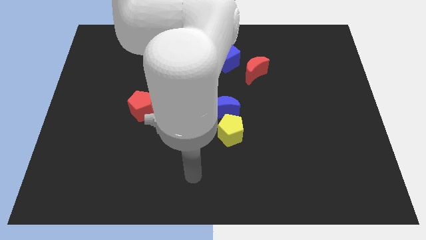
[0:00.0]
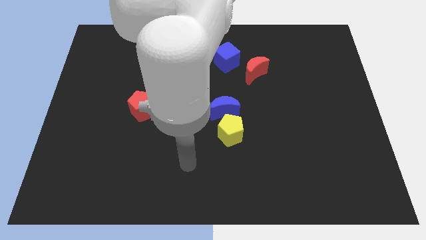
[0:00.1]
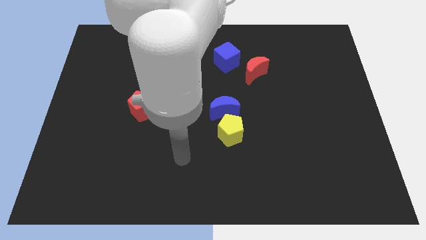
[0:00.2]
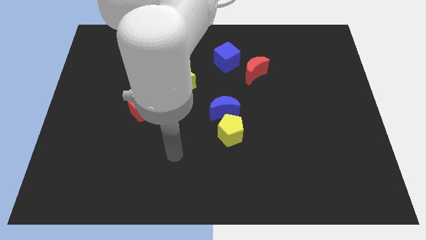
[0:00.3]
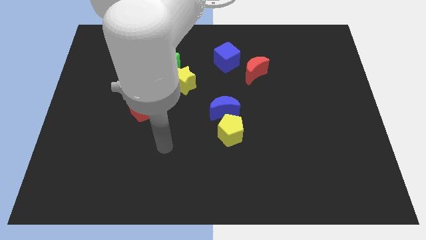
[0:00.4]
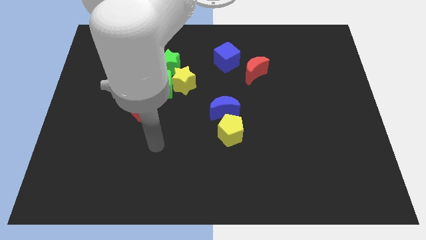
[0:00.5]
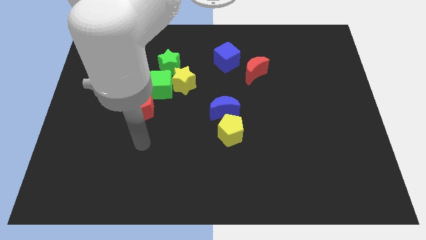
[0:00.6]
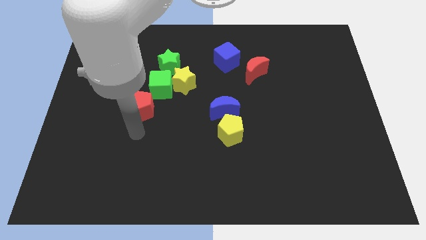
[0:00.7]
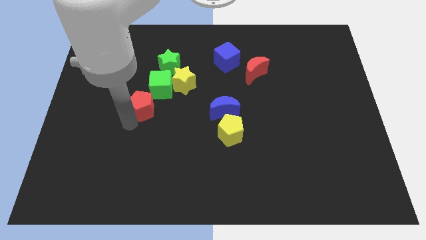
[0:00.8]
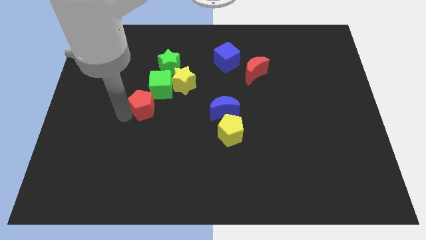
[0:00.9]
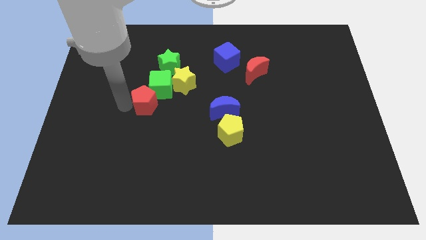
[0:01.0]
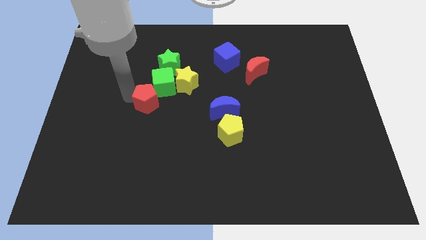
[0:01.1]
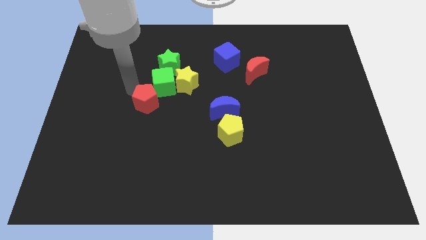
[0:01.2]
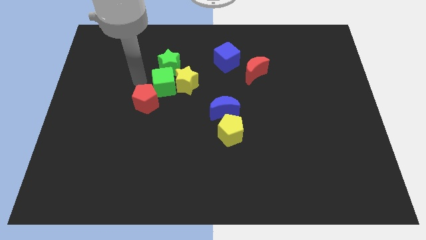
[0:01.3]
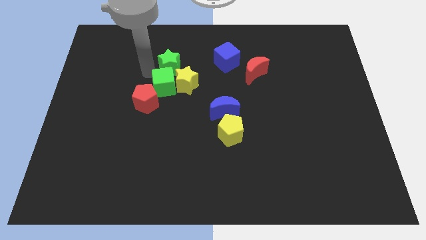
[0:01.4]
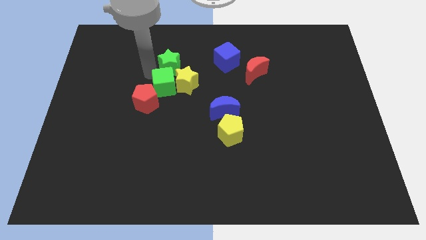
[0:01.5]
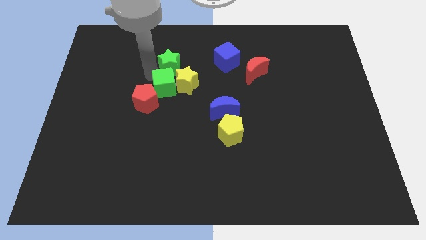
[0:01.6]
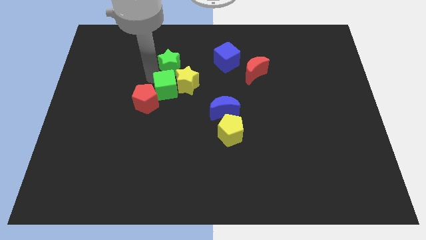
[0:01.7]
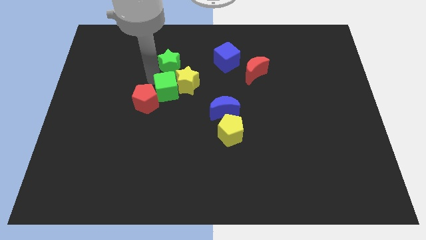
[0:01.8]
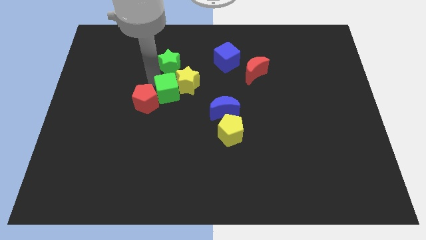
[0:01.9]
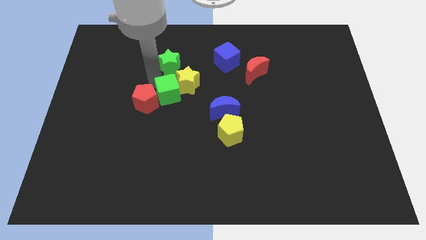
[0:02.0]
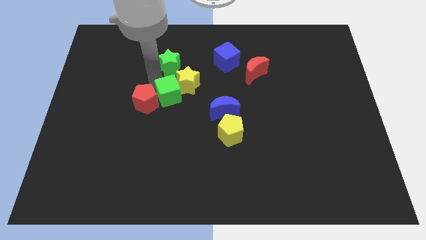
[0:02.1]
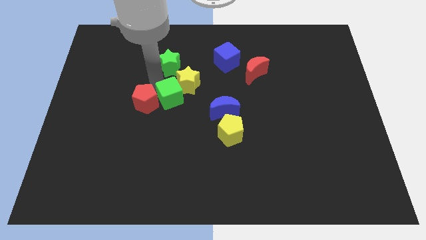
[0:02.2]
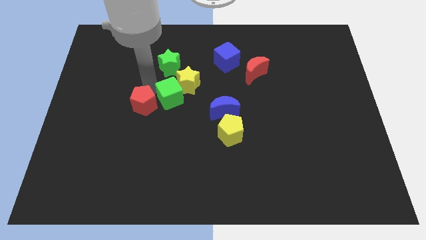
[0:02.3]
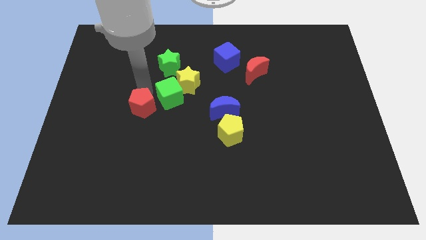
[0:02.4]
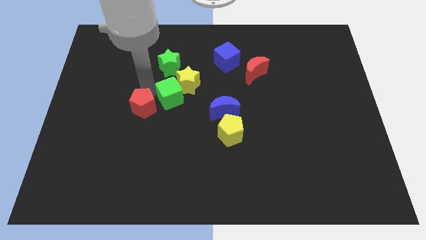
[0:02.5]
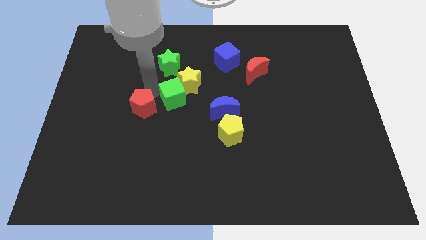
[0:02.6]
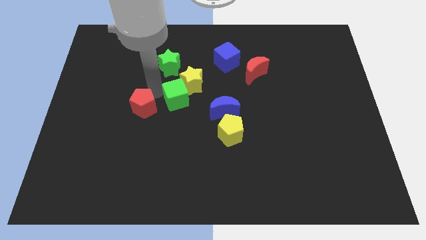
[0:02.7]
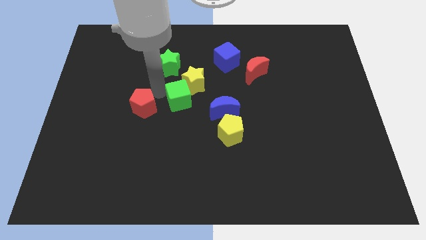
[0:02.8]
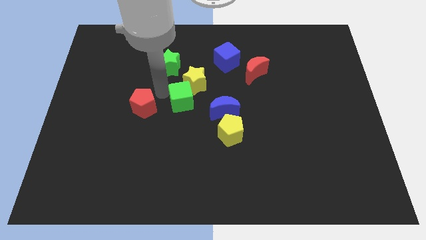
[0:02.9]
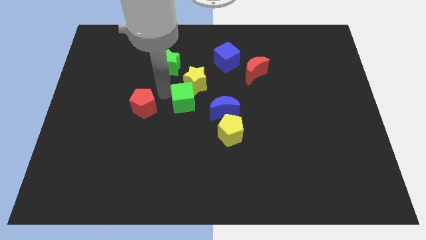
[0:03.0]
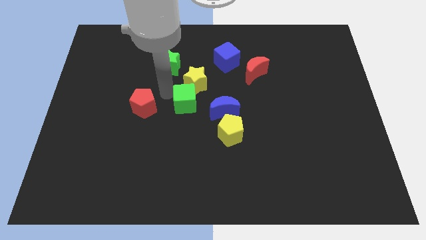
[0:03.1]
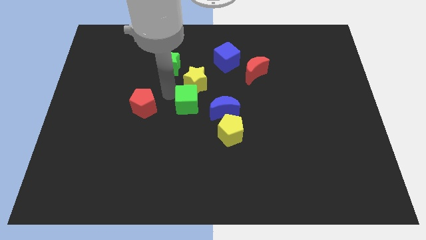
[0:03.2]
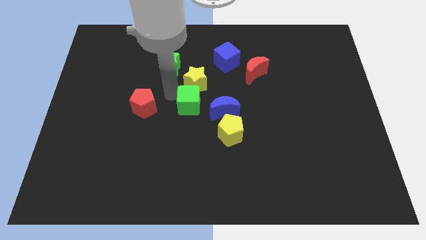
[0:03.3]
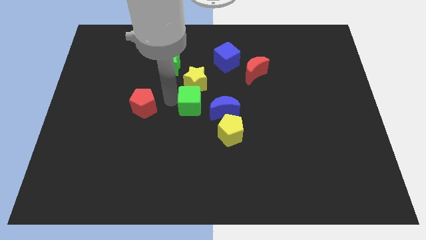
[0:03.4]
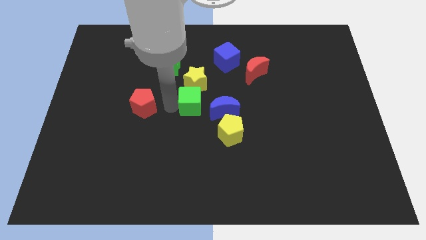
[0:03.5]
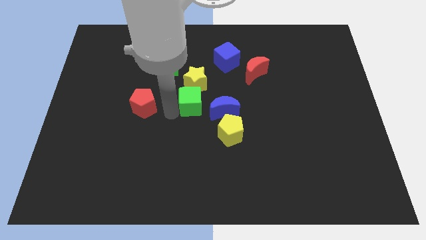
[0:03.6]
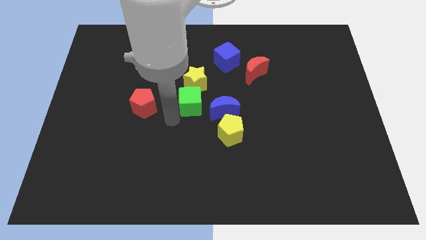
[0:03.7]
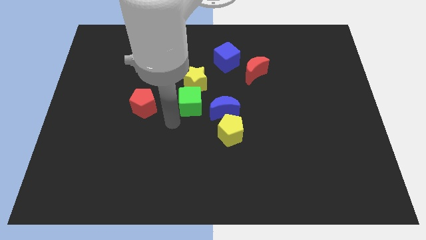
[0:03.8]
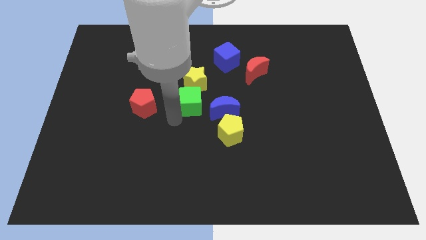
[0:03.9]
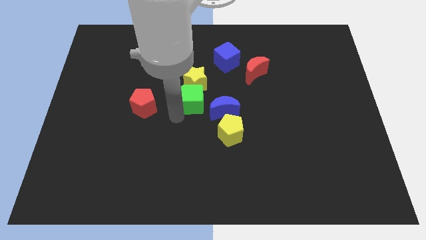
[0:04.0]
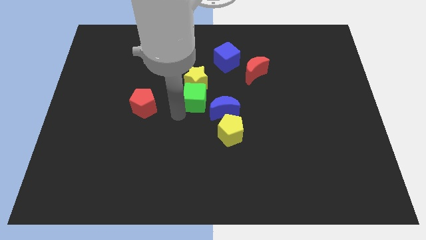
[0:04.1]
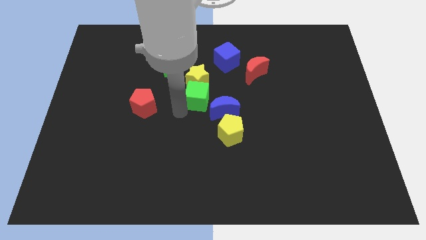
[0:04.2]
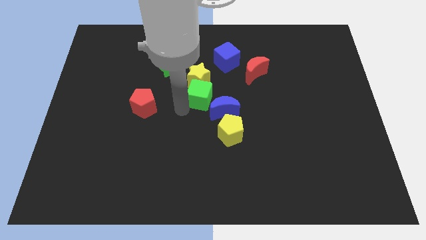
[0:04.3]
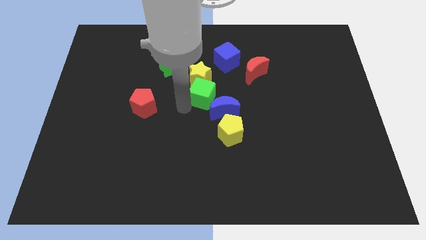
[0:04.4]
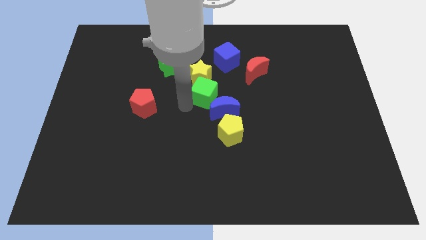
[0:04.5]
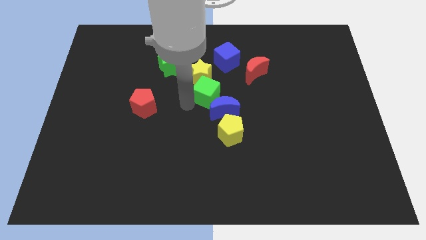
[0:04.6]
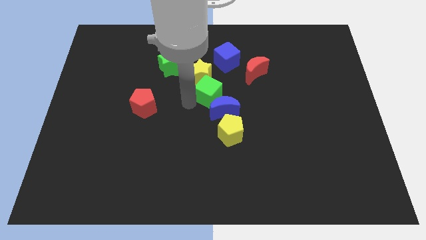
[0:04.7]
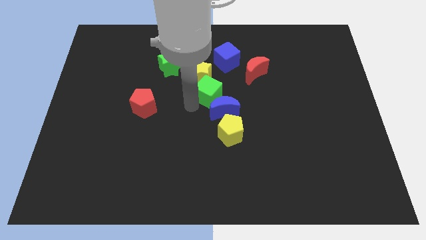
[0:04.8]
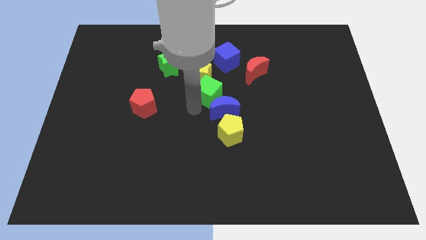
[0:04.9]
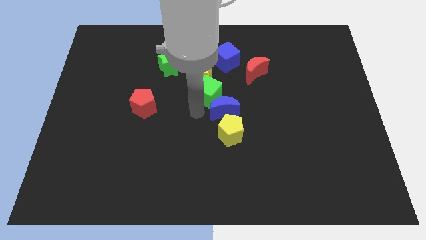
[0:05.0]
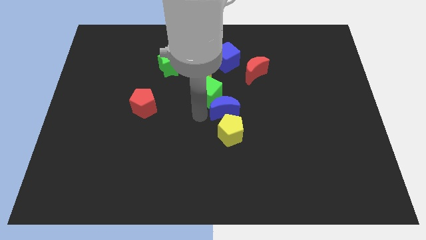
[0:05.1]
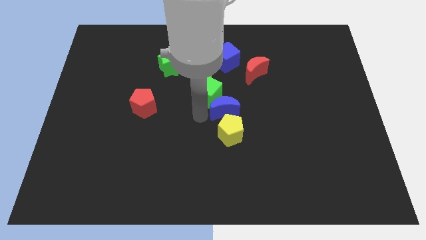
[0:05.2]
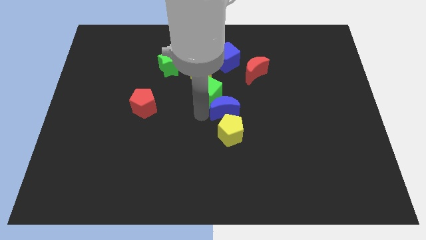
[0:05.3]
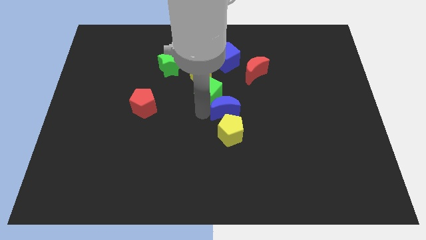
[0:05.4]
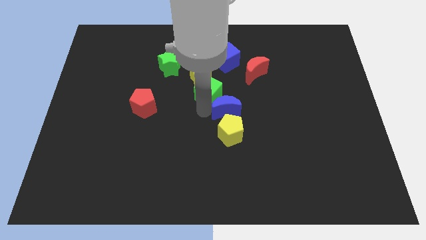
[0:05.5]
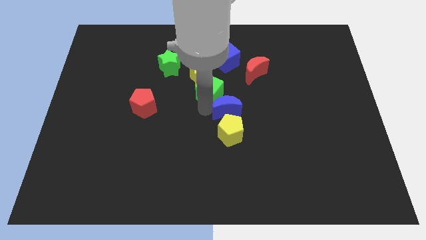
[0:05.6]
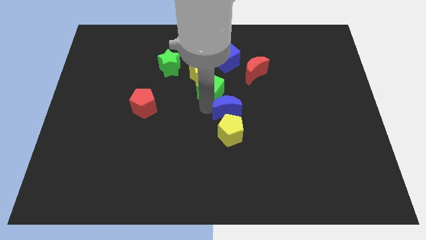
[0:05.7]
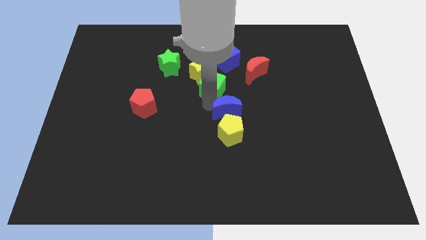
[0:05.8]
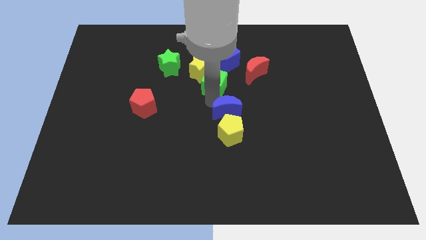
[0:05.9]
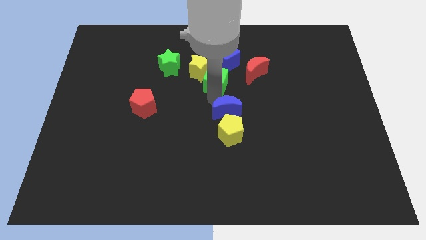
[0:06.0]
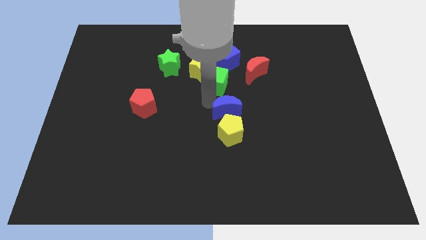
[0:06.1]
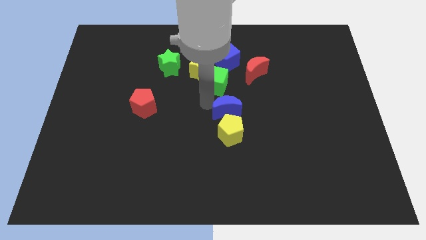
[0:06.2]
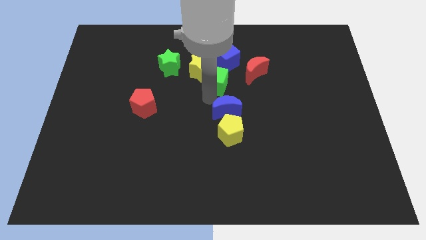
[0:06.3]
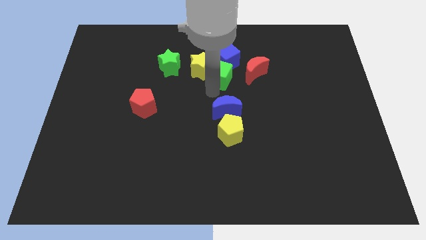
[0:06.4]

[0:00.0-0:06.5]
move the green cube close to the blue cube
